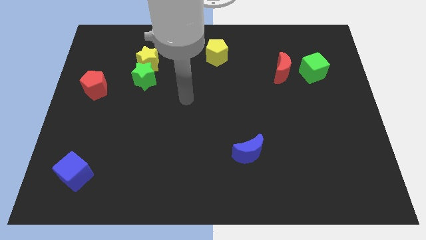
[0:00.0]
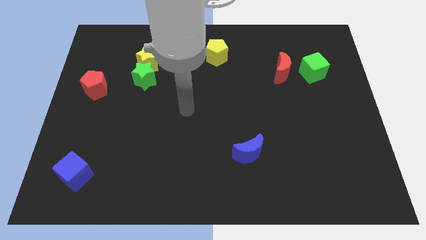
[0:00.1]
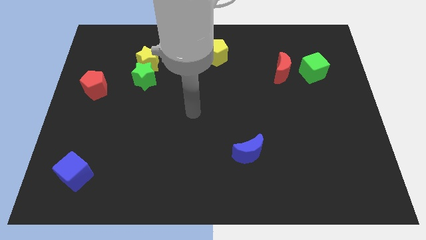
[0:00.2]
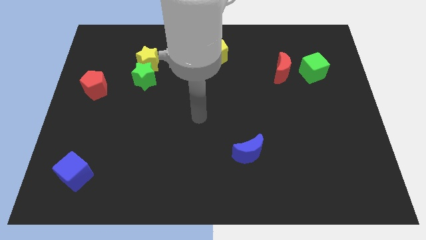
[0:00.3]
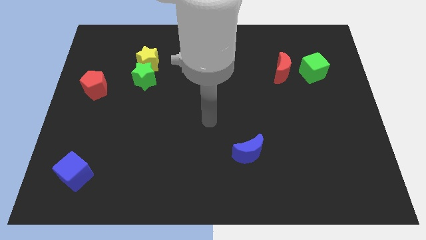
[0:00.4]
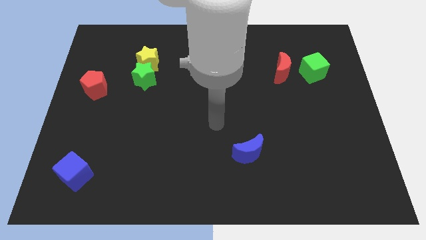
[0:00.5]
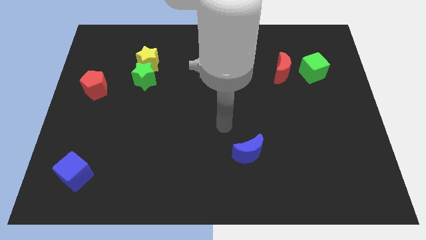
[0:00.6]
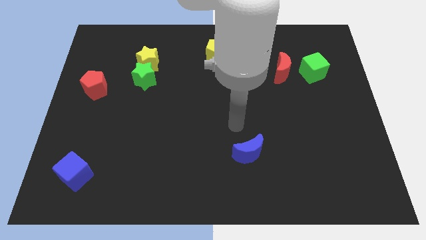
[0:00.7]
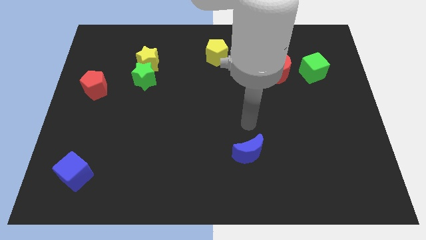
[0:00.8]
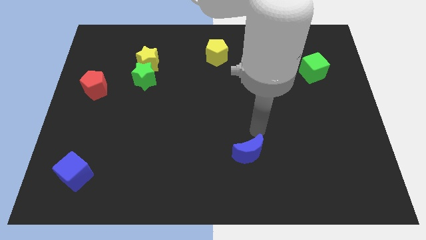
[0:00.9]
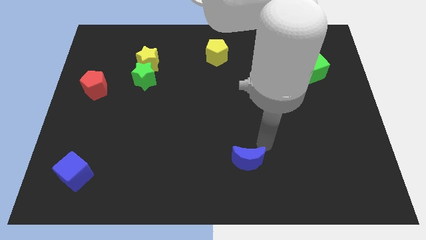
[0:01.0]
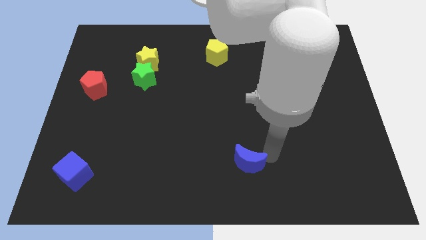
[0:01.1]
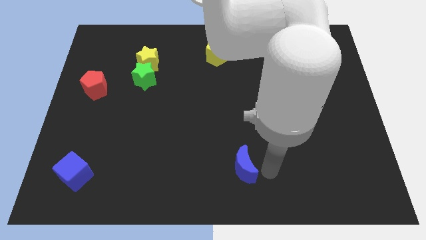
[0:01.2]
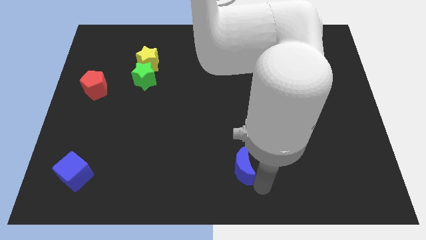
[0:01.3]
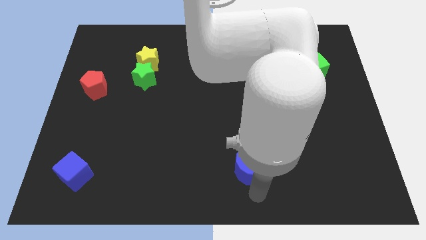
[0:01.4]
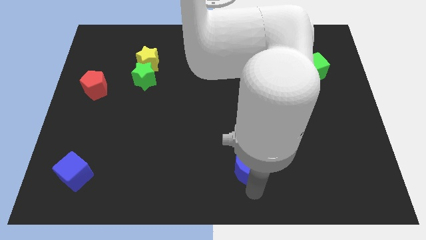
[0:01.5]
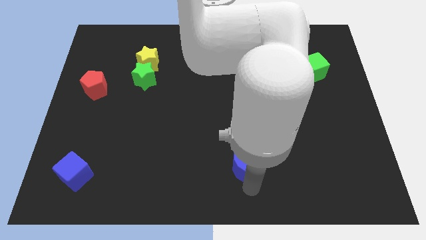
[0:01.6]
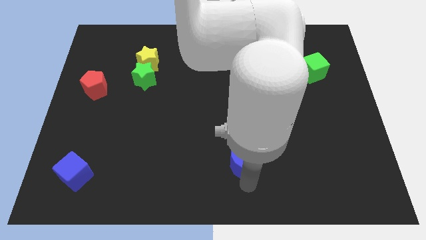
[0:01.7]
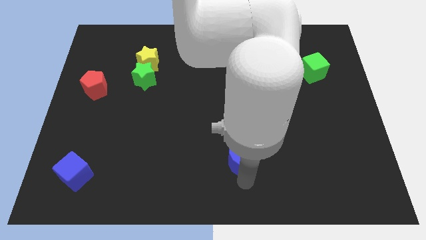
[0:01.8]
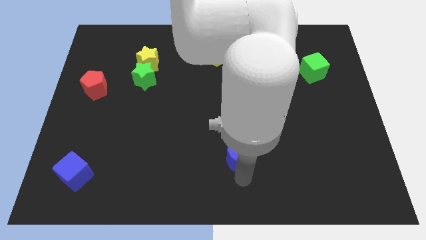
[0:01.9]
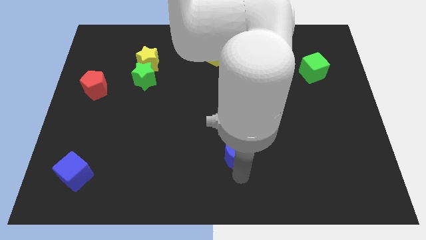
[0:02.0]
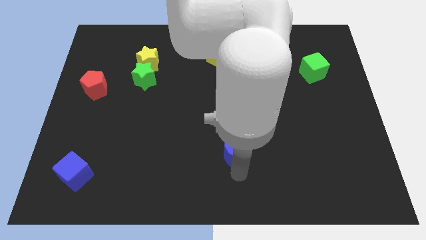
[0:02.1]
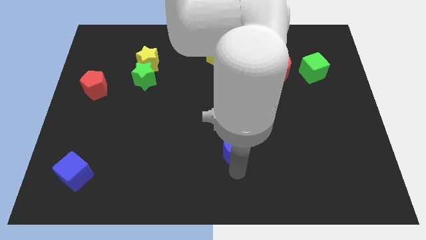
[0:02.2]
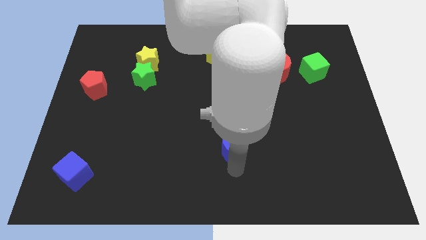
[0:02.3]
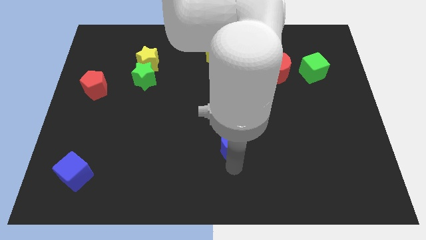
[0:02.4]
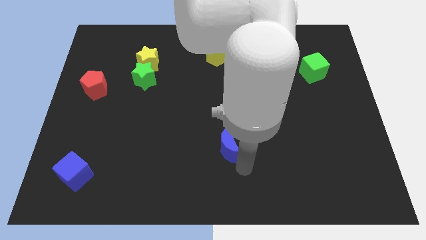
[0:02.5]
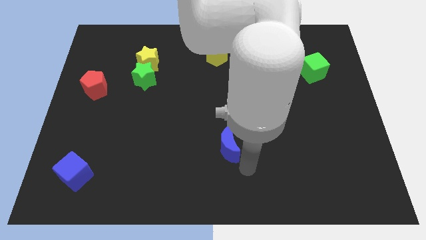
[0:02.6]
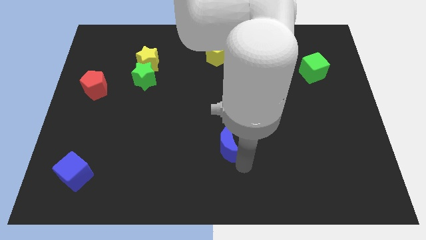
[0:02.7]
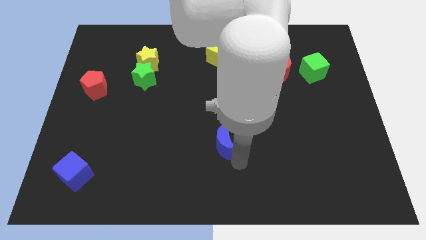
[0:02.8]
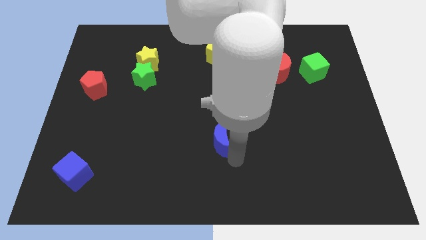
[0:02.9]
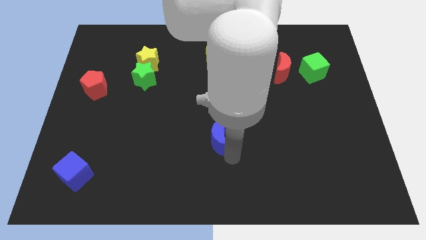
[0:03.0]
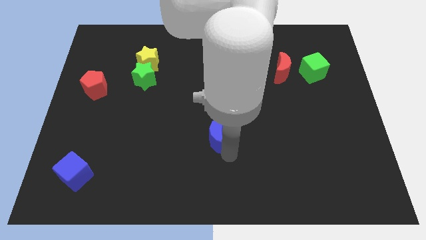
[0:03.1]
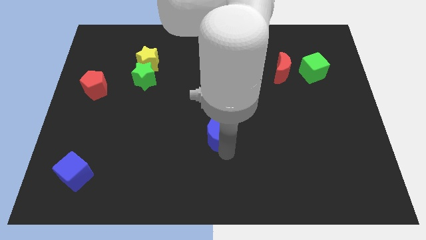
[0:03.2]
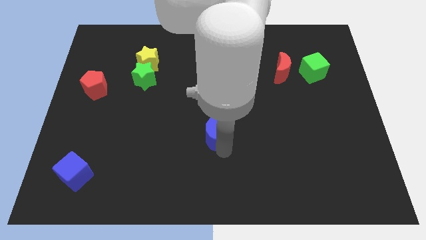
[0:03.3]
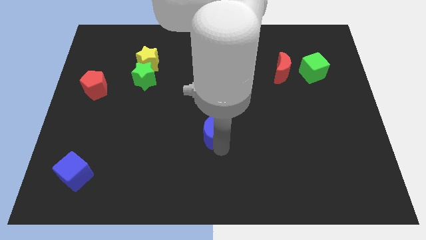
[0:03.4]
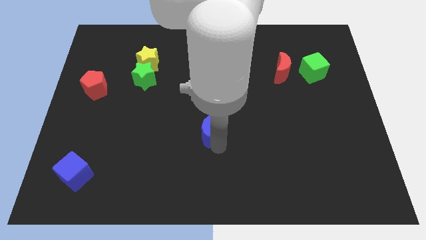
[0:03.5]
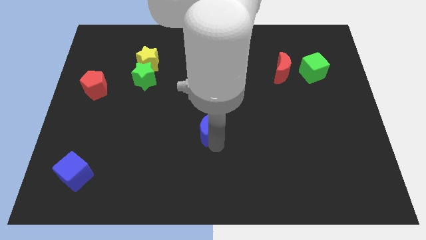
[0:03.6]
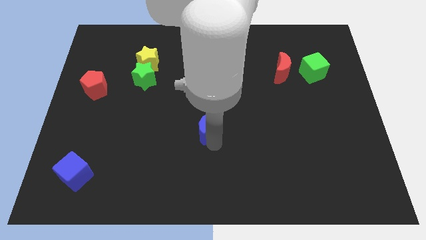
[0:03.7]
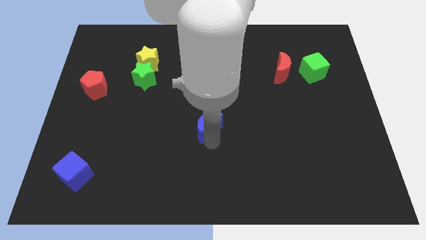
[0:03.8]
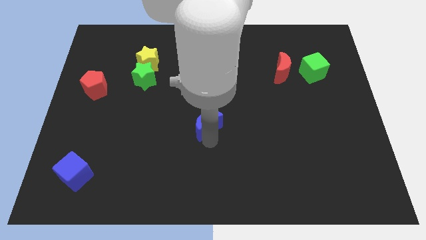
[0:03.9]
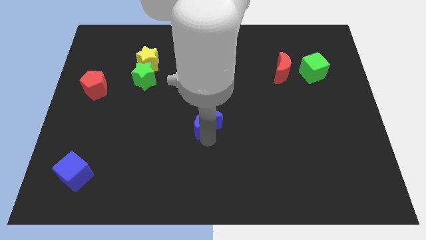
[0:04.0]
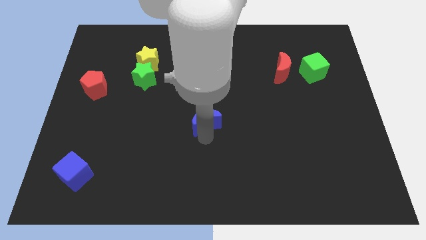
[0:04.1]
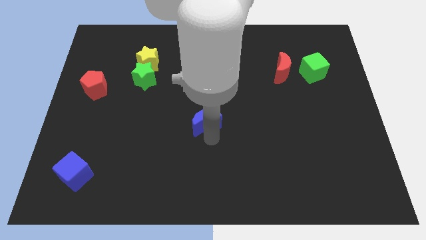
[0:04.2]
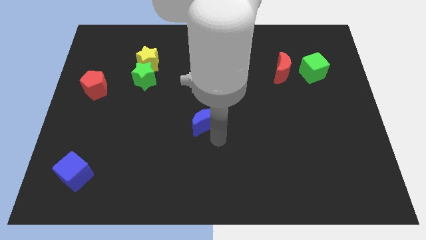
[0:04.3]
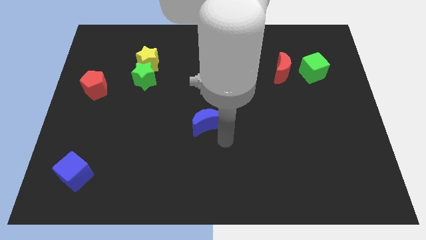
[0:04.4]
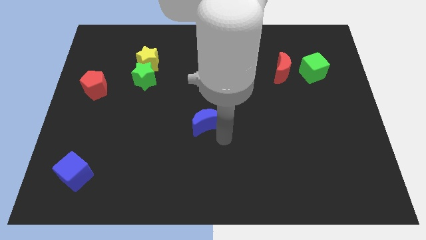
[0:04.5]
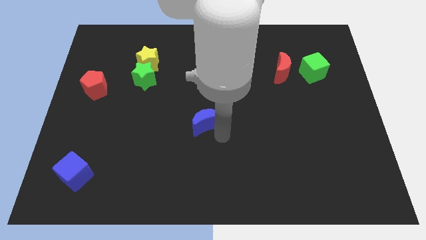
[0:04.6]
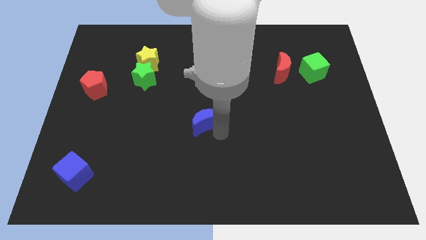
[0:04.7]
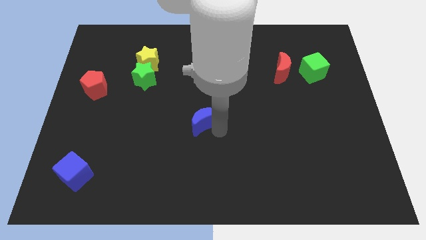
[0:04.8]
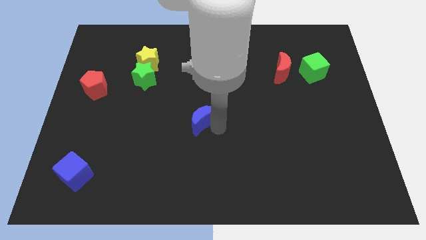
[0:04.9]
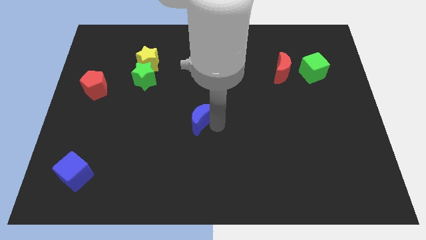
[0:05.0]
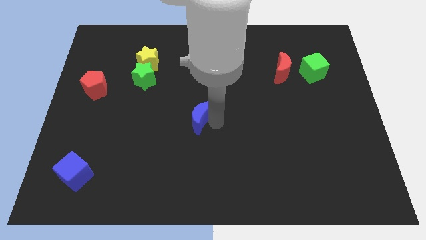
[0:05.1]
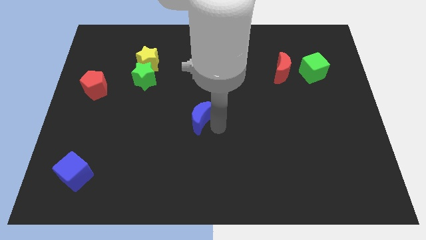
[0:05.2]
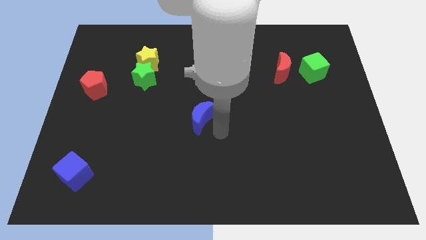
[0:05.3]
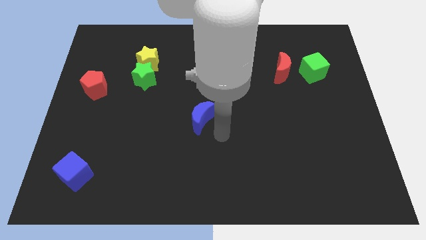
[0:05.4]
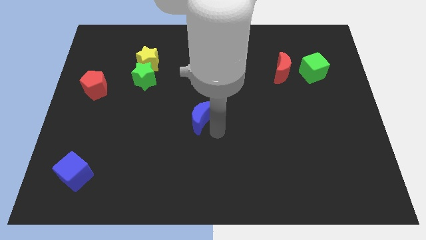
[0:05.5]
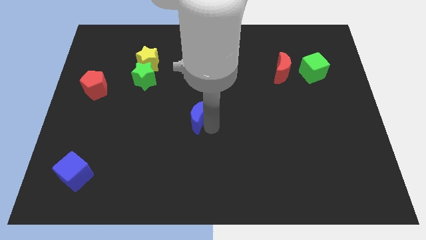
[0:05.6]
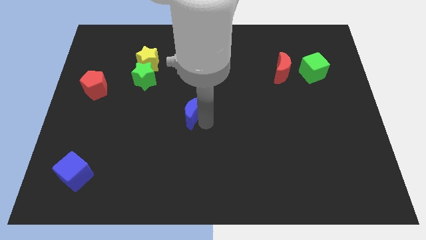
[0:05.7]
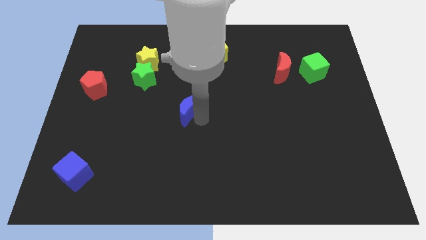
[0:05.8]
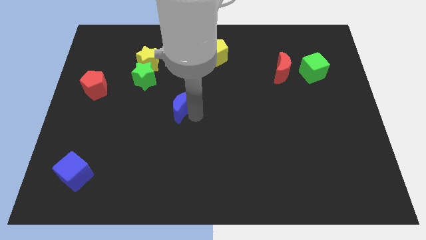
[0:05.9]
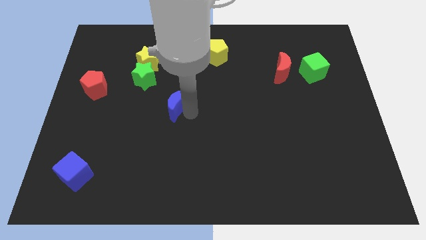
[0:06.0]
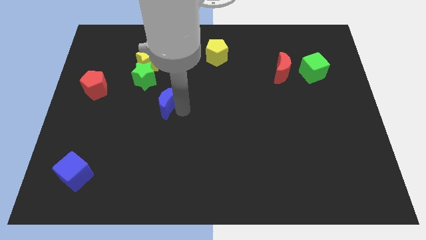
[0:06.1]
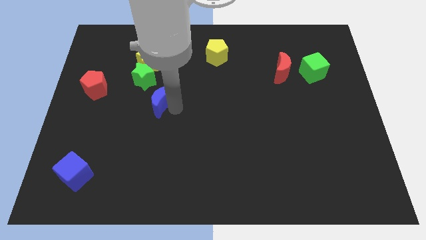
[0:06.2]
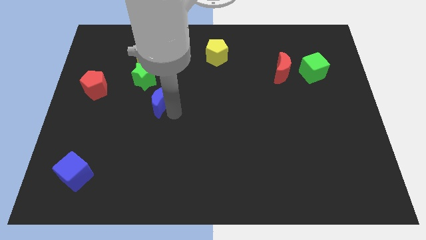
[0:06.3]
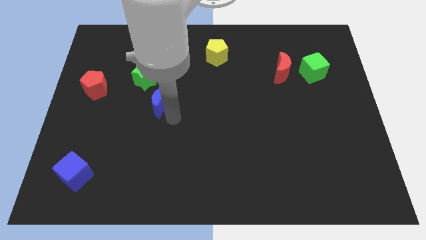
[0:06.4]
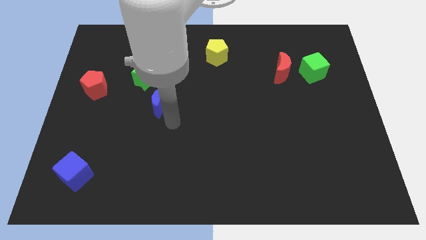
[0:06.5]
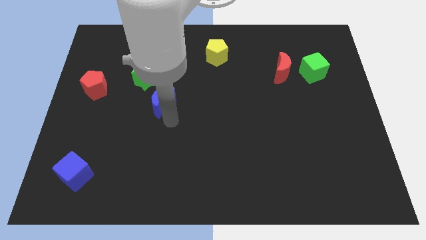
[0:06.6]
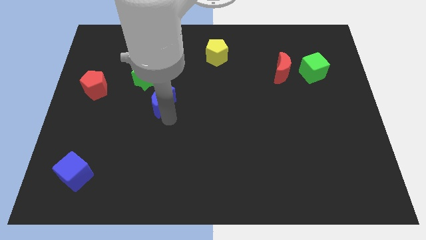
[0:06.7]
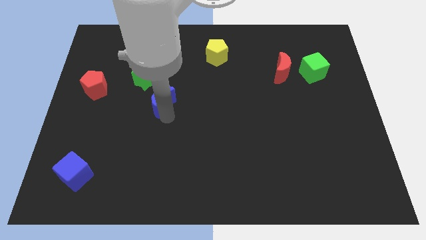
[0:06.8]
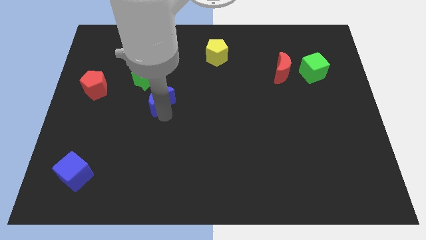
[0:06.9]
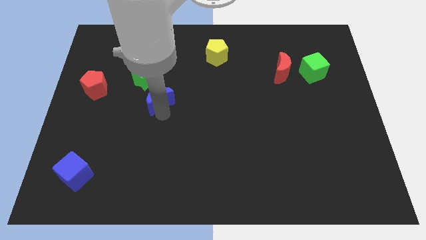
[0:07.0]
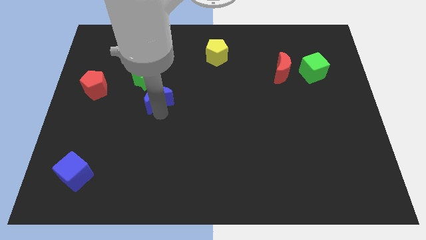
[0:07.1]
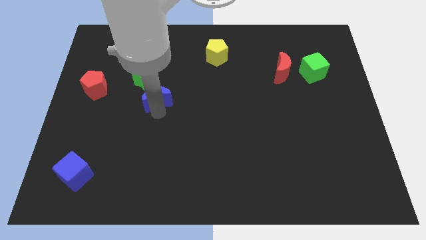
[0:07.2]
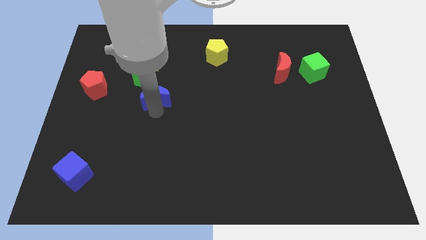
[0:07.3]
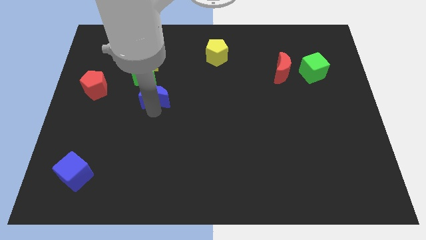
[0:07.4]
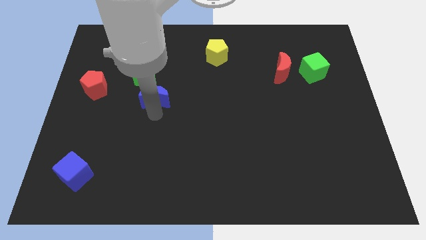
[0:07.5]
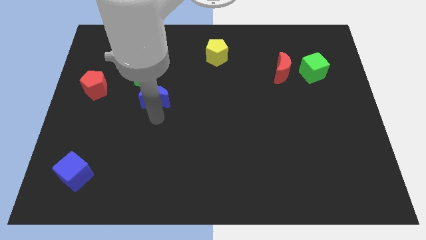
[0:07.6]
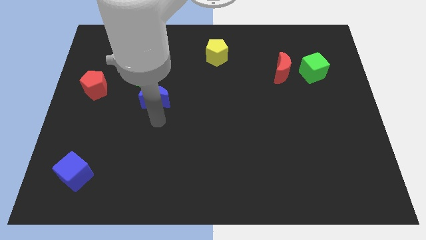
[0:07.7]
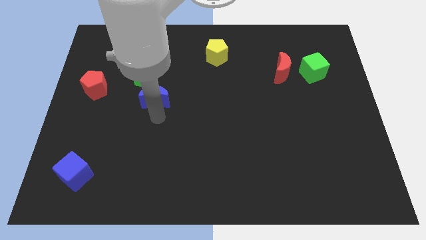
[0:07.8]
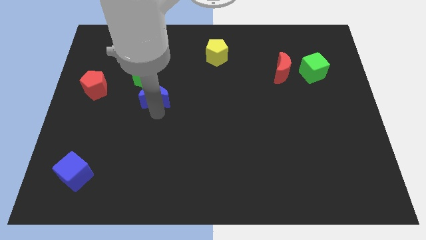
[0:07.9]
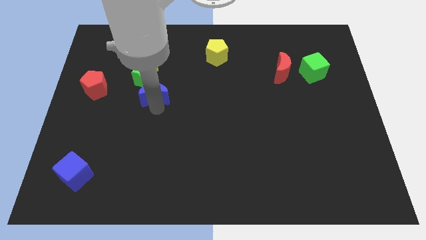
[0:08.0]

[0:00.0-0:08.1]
slide the blue moon to the right side of the red pentagon
